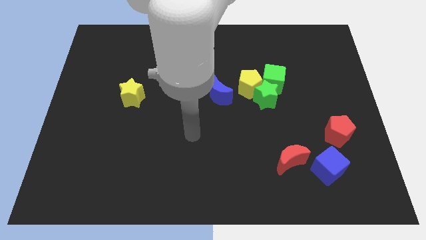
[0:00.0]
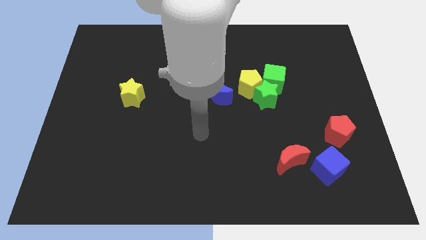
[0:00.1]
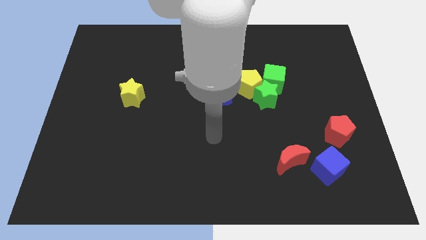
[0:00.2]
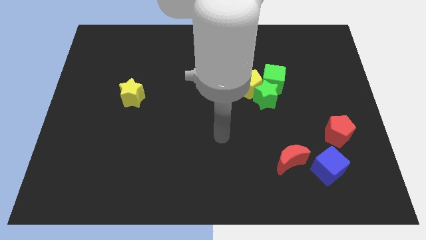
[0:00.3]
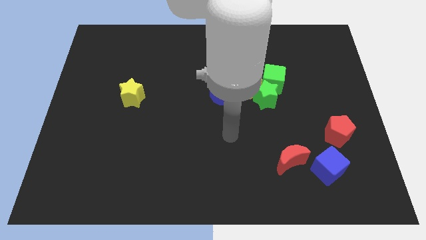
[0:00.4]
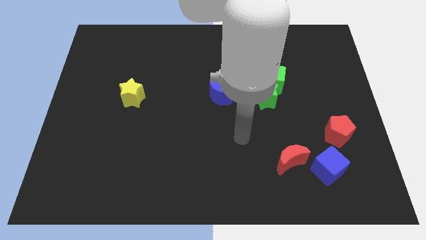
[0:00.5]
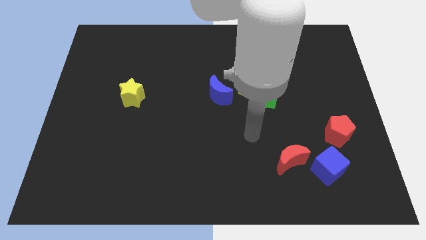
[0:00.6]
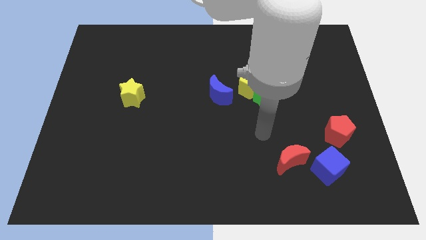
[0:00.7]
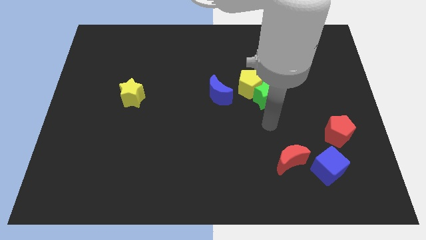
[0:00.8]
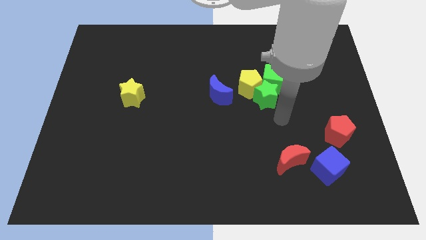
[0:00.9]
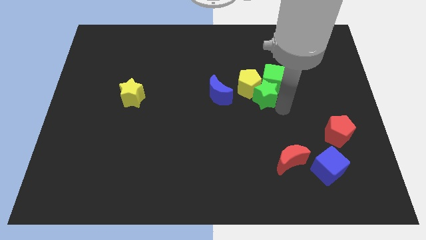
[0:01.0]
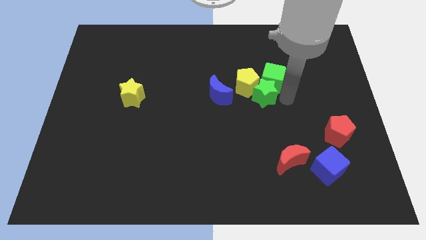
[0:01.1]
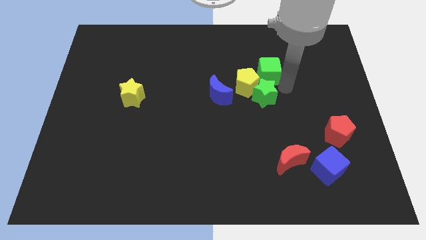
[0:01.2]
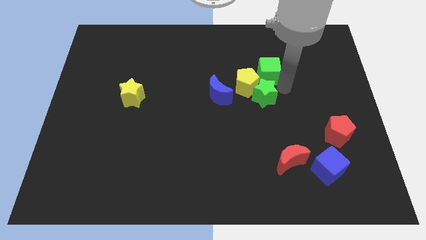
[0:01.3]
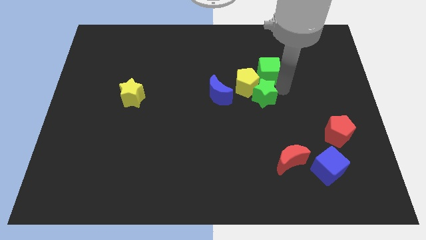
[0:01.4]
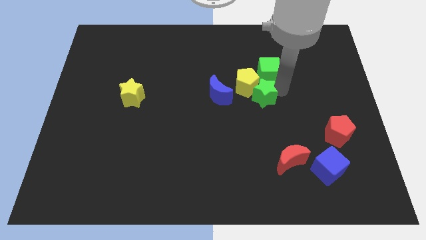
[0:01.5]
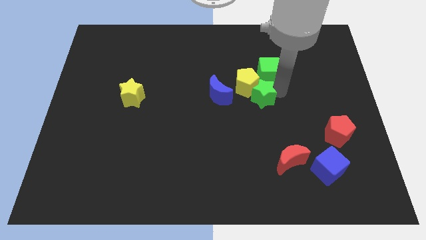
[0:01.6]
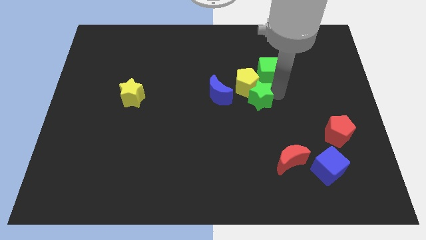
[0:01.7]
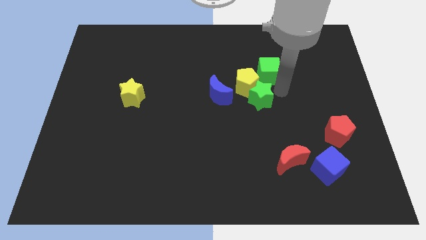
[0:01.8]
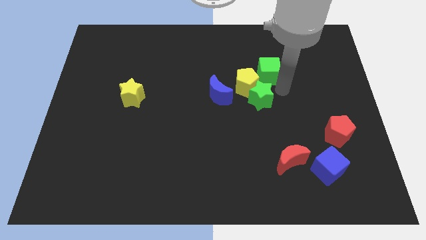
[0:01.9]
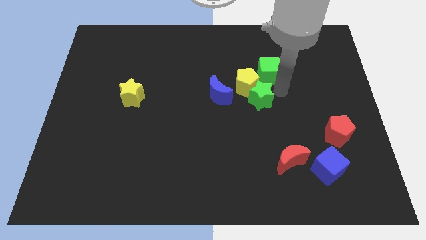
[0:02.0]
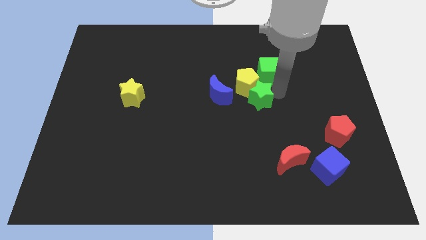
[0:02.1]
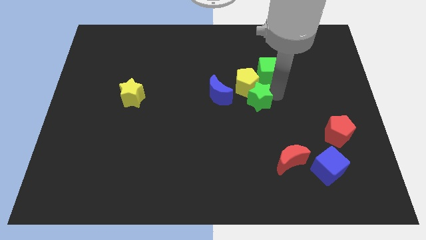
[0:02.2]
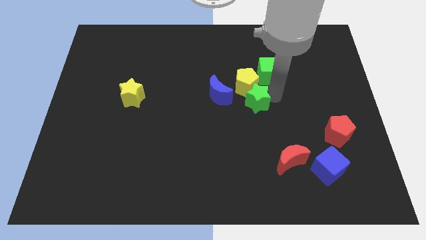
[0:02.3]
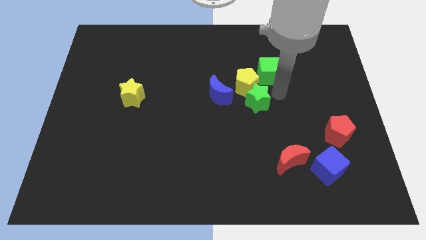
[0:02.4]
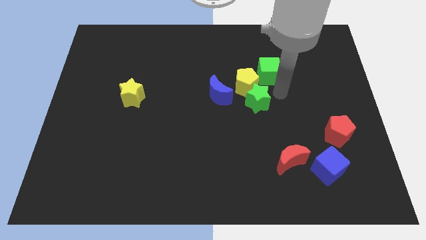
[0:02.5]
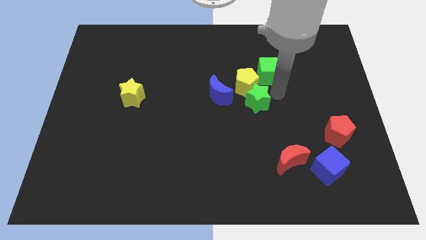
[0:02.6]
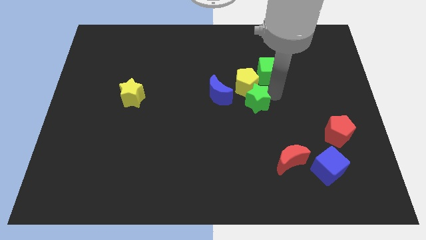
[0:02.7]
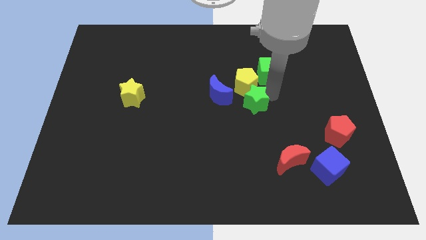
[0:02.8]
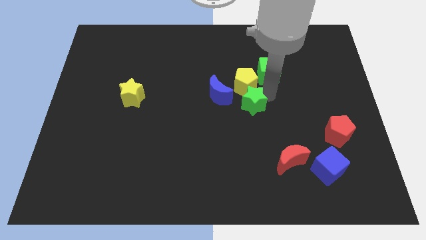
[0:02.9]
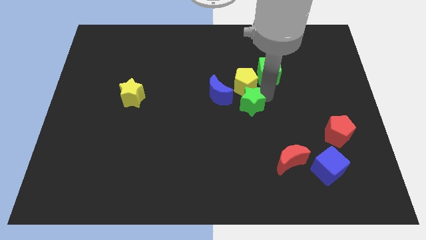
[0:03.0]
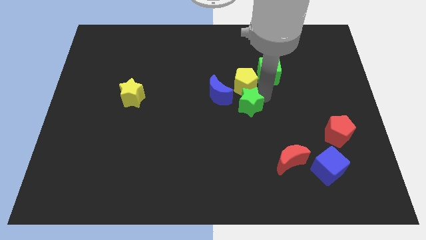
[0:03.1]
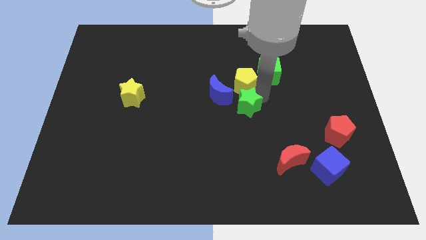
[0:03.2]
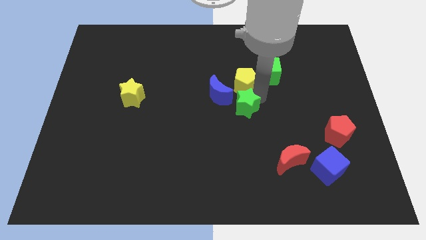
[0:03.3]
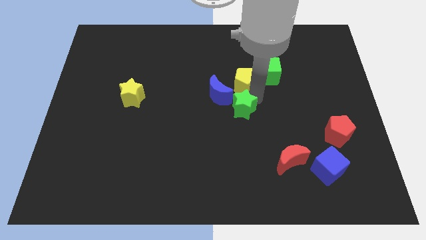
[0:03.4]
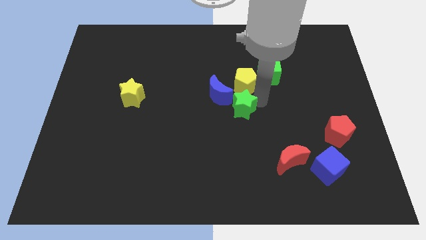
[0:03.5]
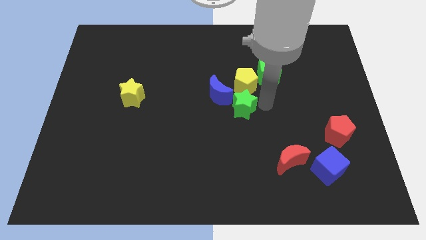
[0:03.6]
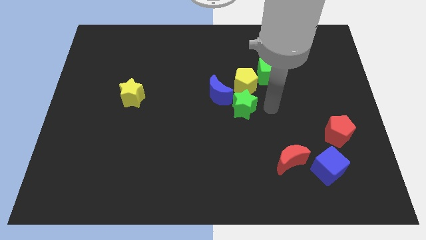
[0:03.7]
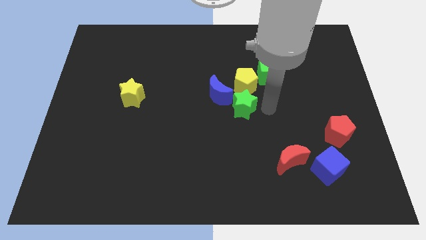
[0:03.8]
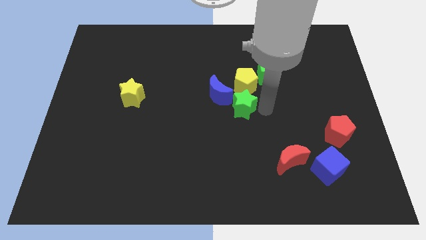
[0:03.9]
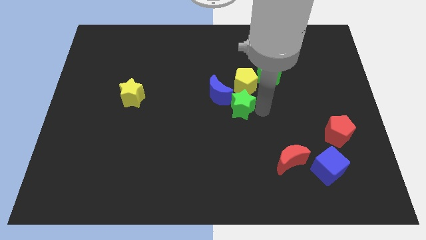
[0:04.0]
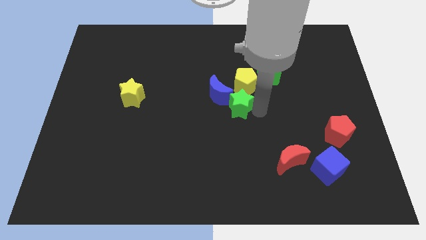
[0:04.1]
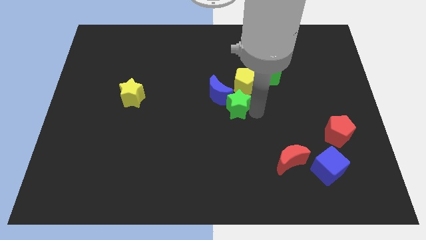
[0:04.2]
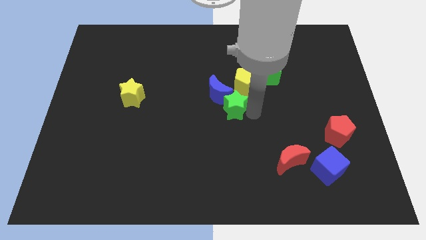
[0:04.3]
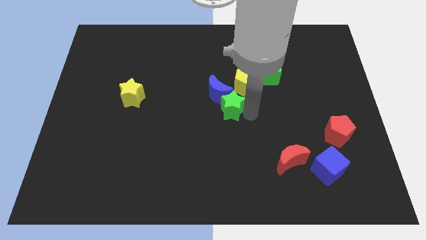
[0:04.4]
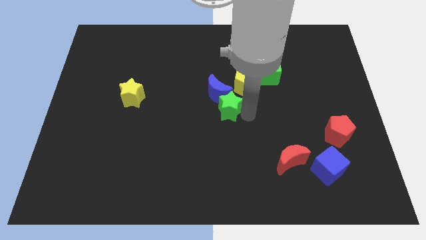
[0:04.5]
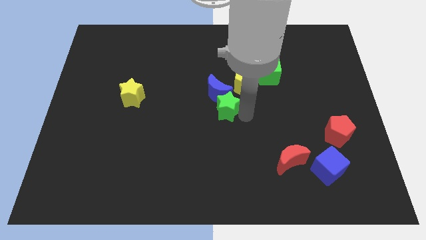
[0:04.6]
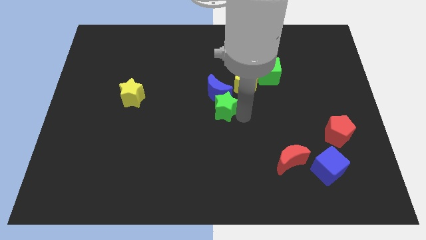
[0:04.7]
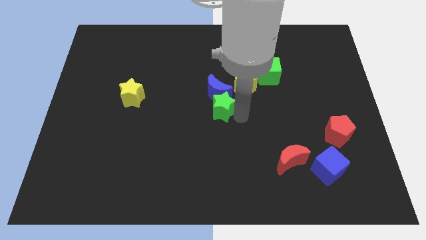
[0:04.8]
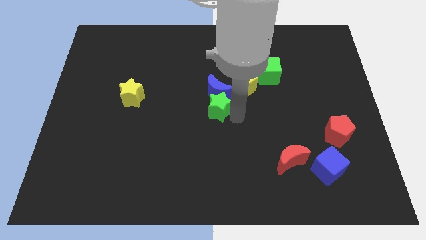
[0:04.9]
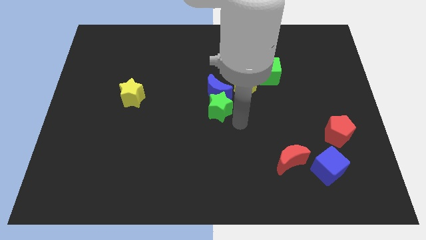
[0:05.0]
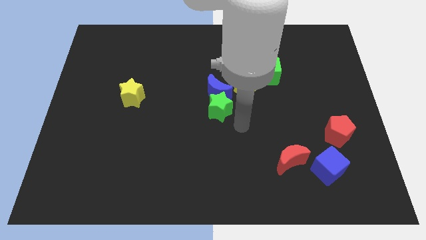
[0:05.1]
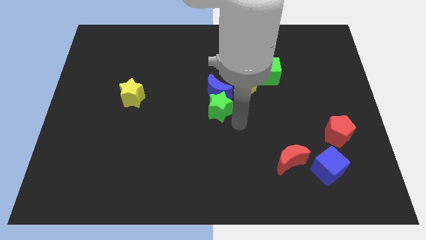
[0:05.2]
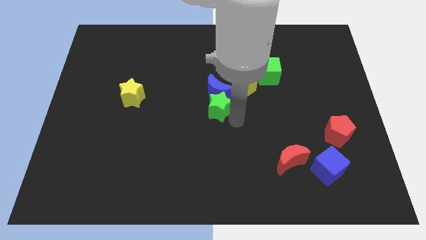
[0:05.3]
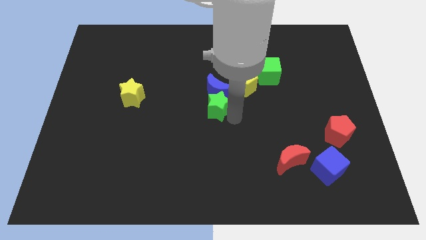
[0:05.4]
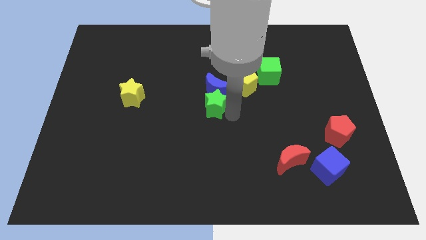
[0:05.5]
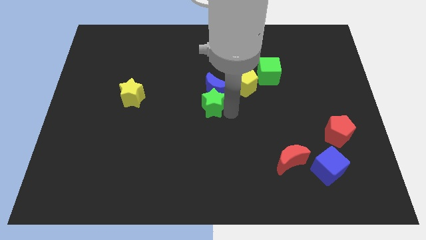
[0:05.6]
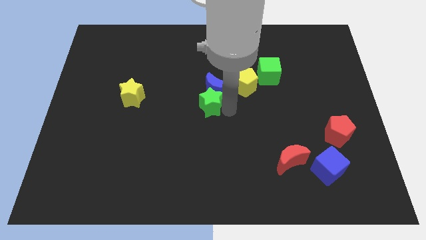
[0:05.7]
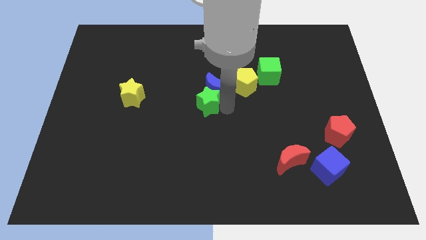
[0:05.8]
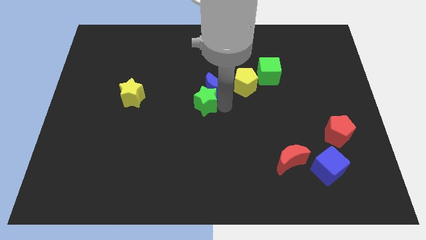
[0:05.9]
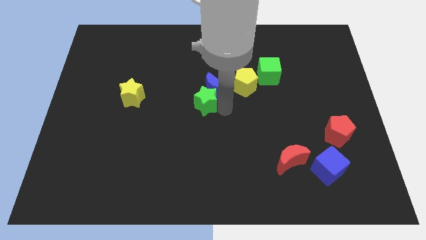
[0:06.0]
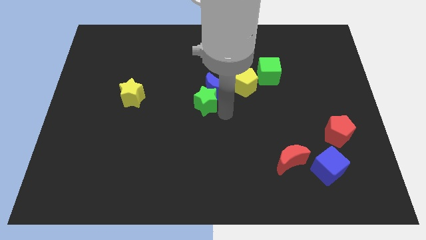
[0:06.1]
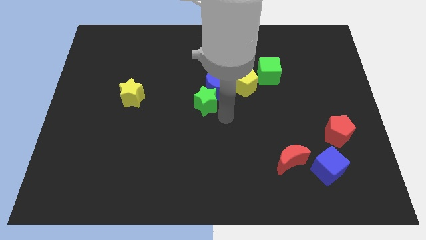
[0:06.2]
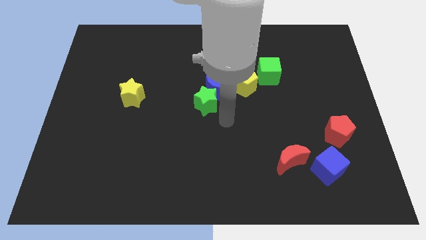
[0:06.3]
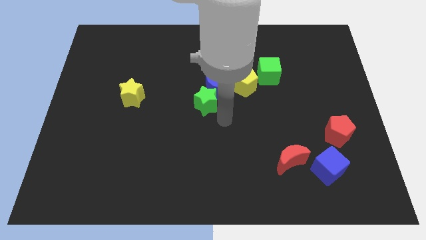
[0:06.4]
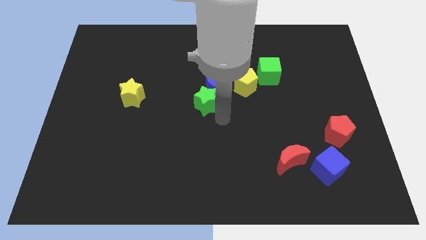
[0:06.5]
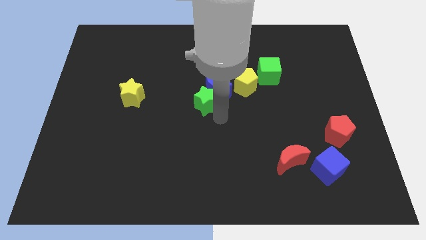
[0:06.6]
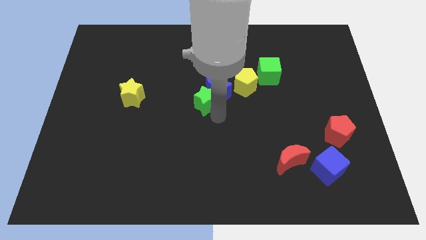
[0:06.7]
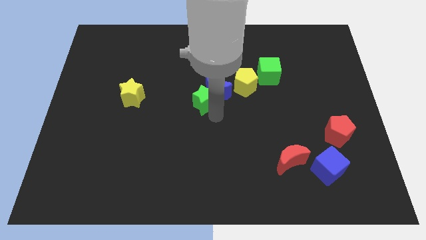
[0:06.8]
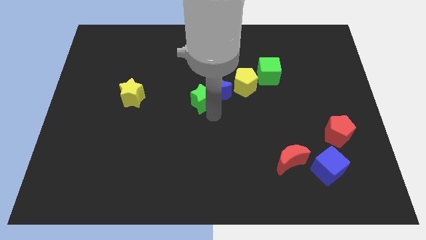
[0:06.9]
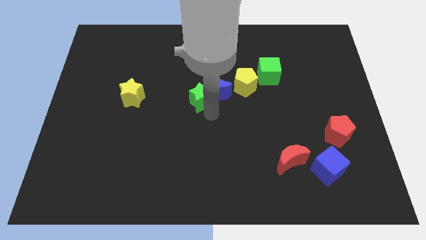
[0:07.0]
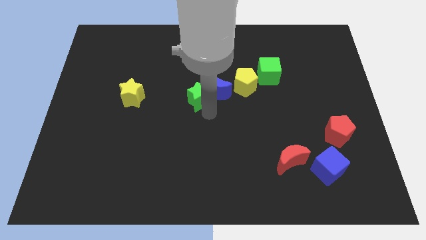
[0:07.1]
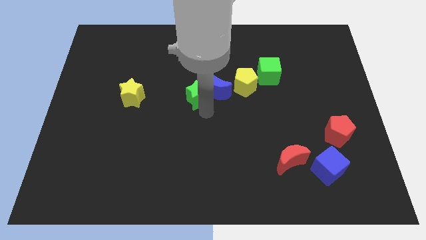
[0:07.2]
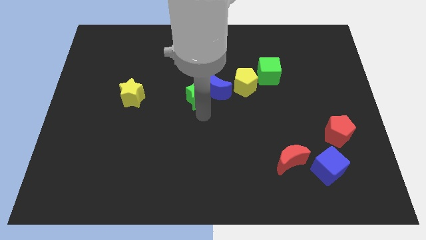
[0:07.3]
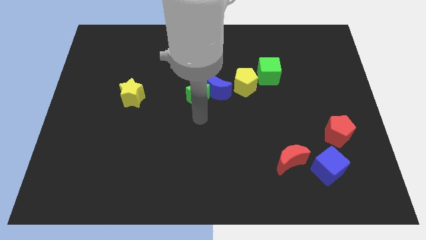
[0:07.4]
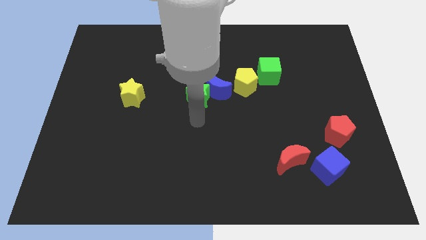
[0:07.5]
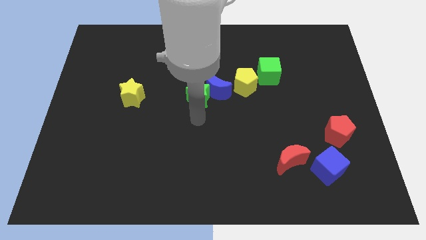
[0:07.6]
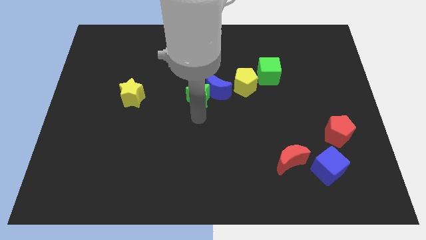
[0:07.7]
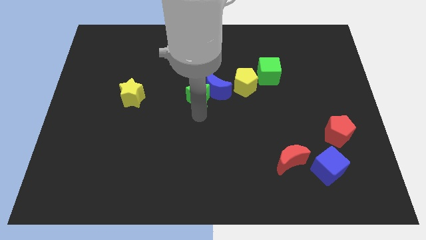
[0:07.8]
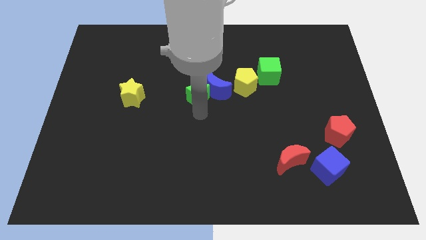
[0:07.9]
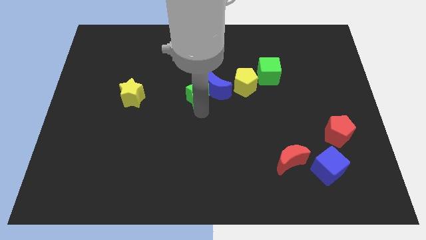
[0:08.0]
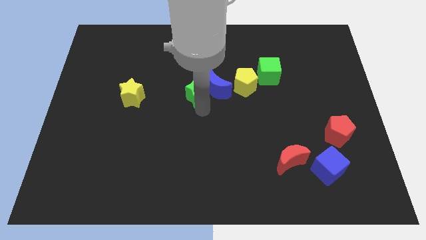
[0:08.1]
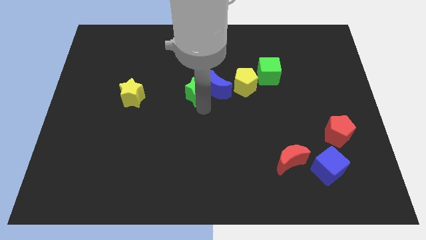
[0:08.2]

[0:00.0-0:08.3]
slide the green star up and to the left diagonally a little bit
